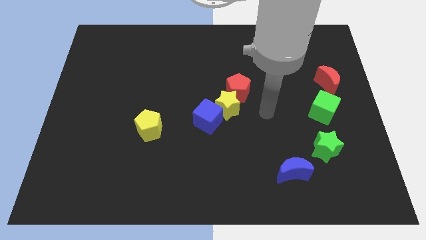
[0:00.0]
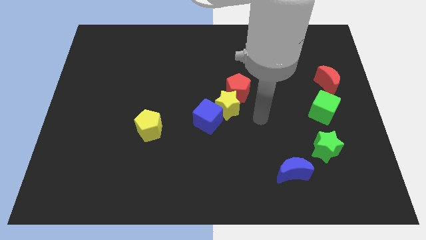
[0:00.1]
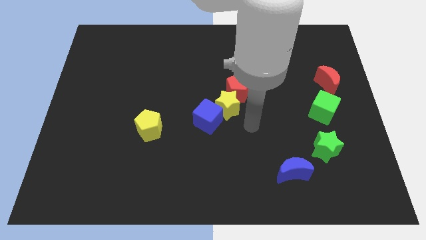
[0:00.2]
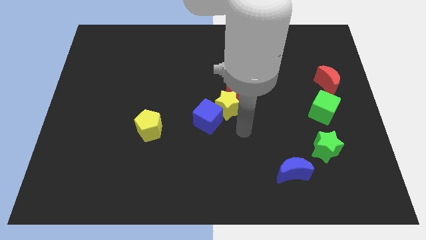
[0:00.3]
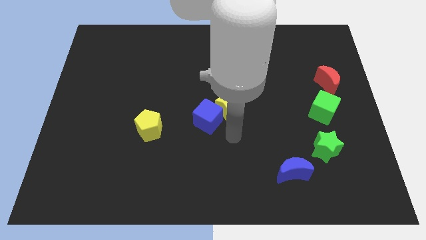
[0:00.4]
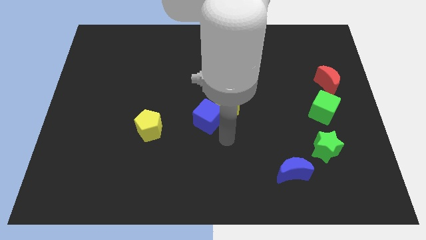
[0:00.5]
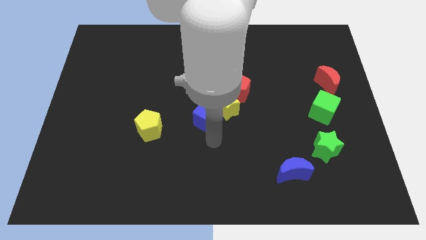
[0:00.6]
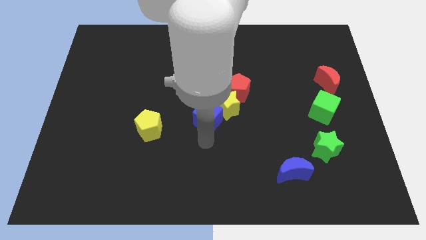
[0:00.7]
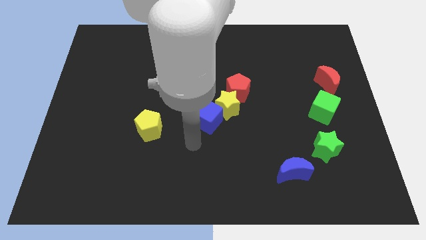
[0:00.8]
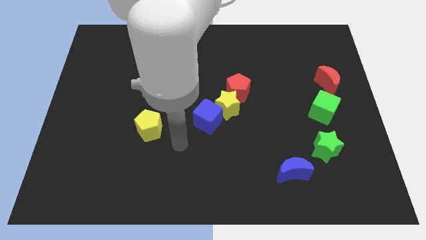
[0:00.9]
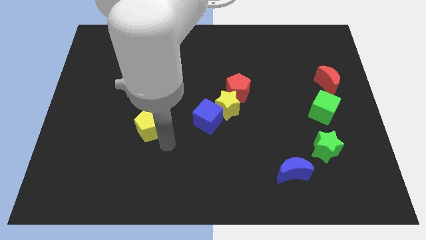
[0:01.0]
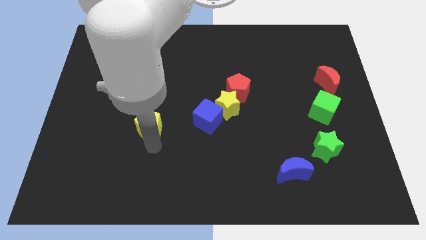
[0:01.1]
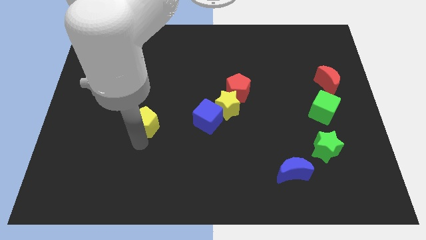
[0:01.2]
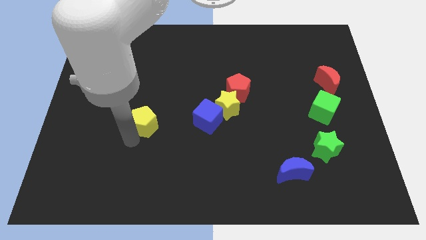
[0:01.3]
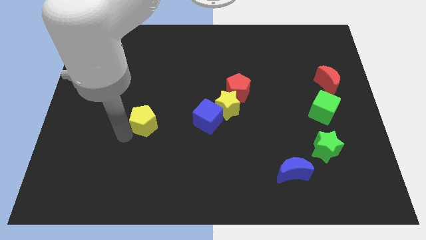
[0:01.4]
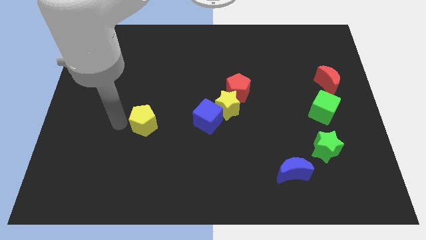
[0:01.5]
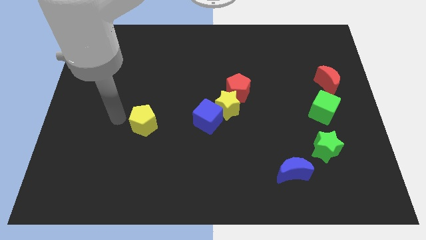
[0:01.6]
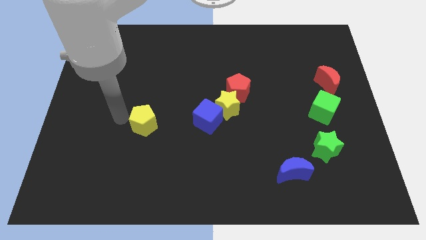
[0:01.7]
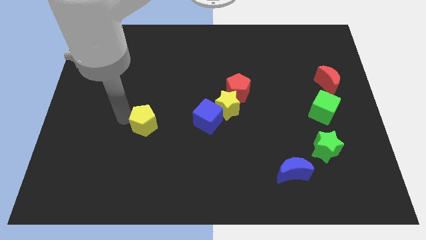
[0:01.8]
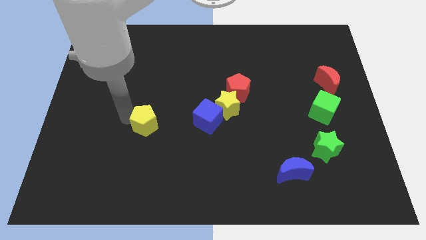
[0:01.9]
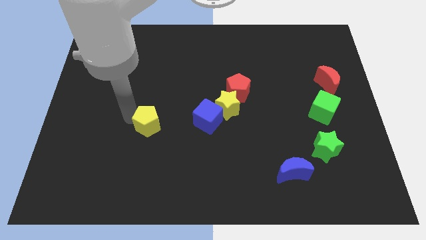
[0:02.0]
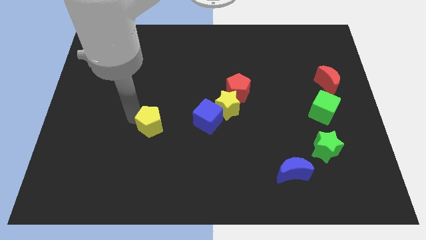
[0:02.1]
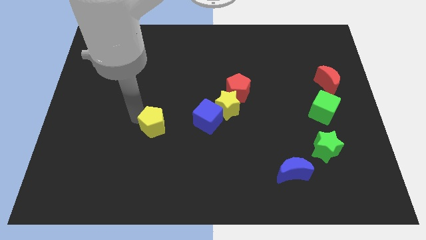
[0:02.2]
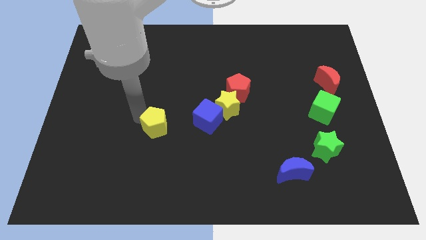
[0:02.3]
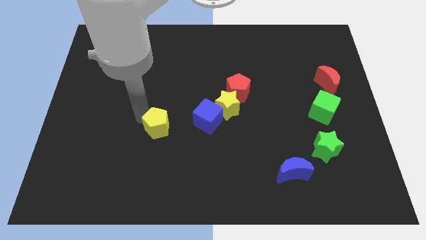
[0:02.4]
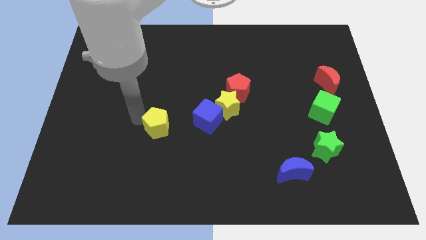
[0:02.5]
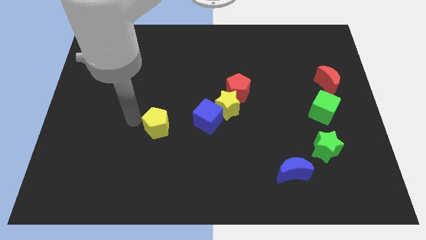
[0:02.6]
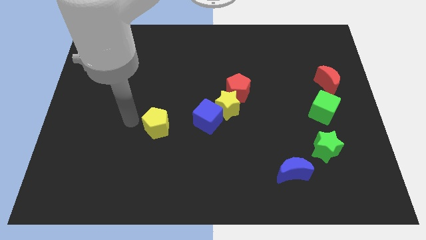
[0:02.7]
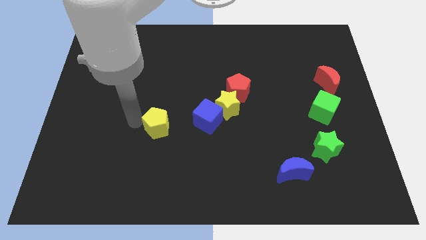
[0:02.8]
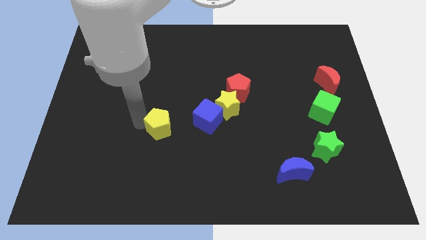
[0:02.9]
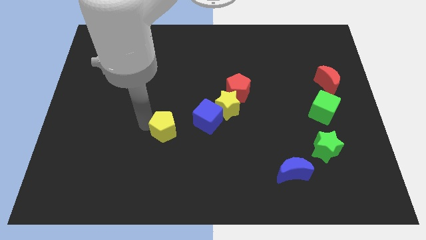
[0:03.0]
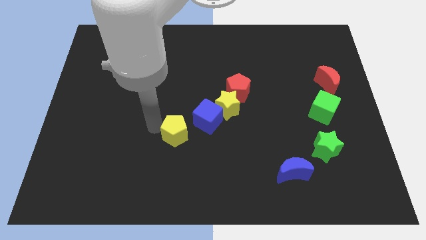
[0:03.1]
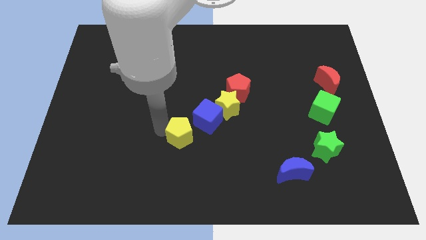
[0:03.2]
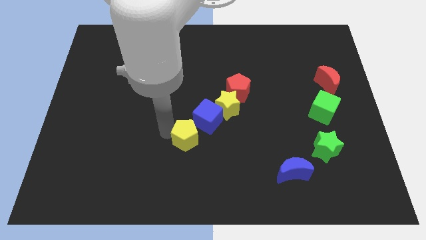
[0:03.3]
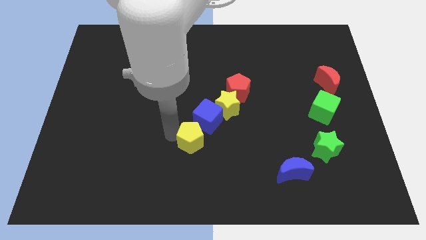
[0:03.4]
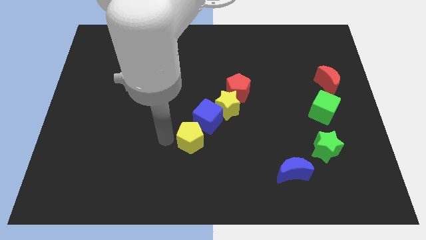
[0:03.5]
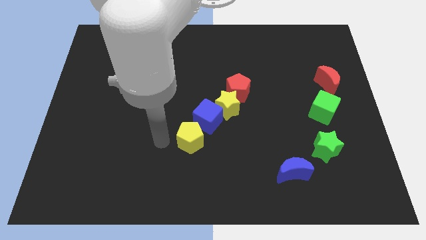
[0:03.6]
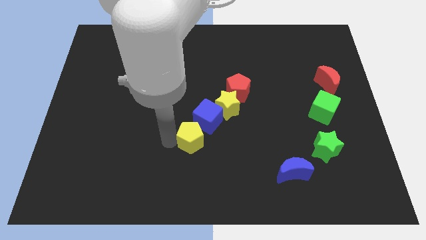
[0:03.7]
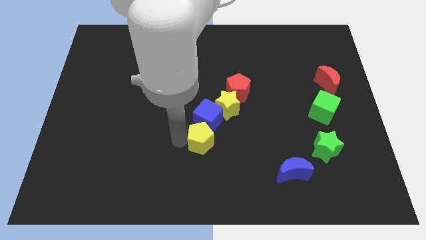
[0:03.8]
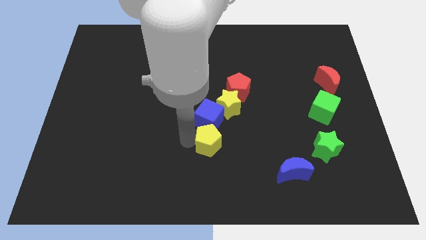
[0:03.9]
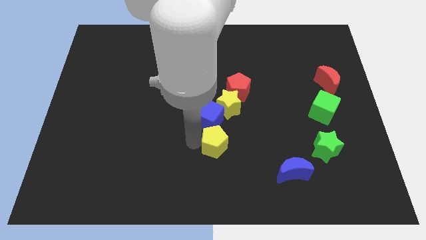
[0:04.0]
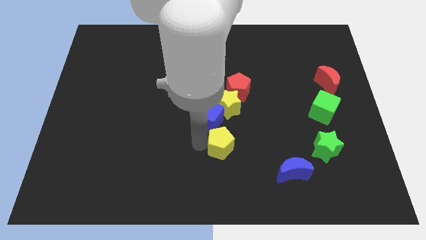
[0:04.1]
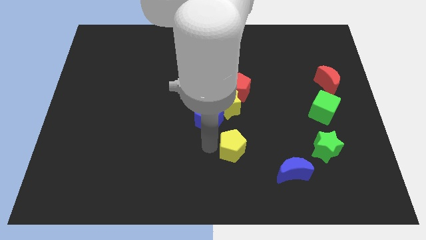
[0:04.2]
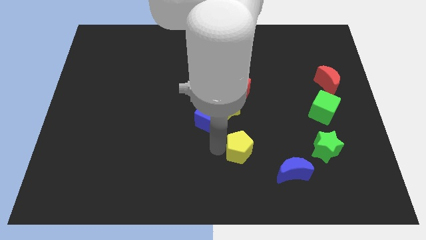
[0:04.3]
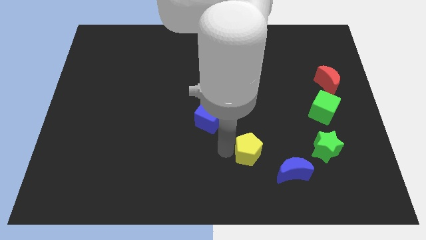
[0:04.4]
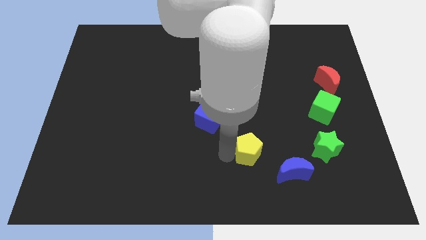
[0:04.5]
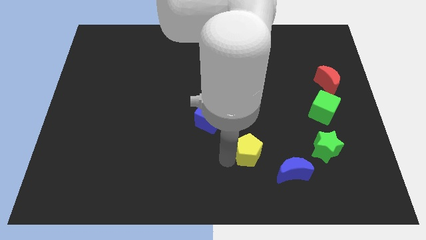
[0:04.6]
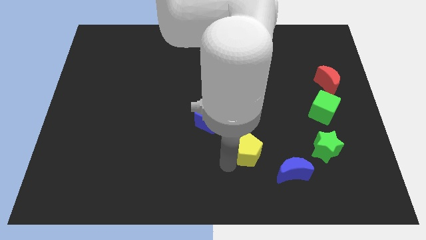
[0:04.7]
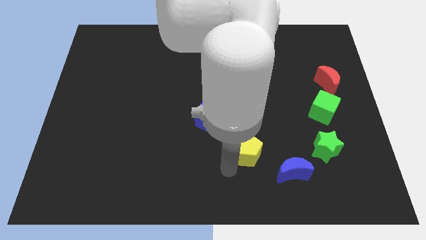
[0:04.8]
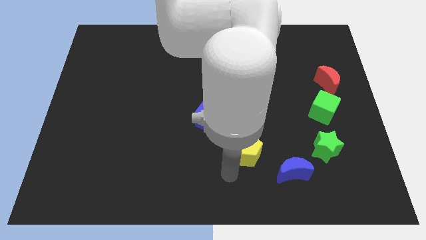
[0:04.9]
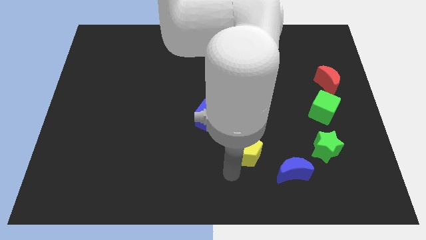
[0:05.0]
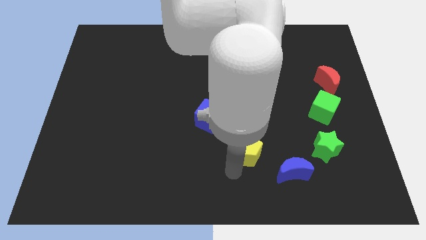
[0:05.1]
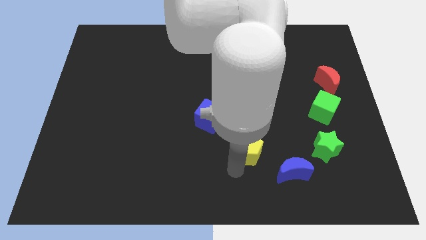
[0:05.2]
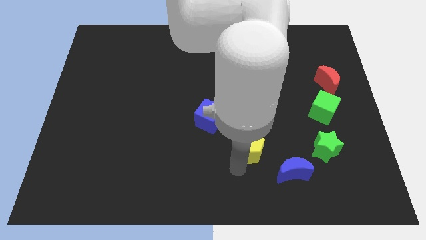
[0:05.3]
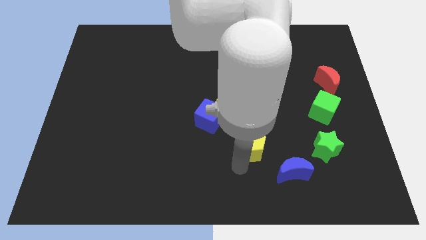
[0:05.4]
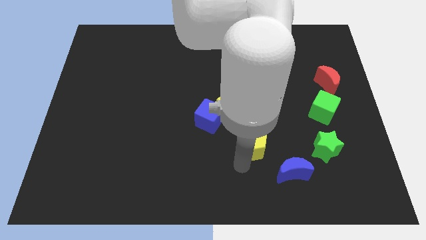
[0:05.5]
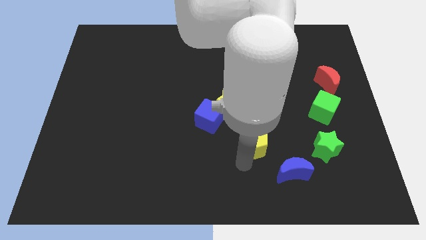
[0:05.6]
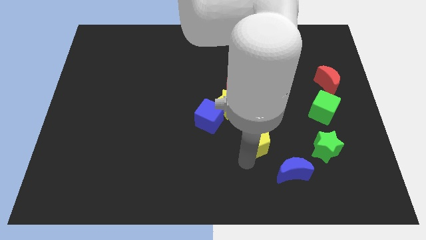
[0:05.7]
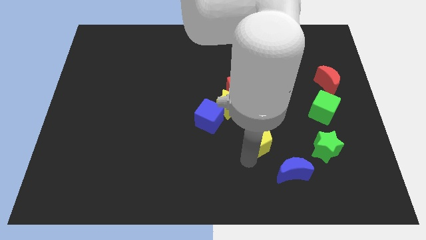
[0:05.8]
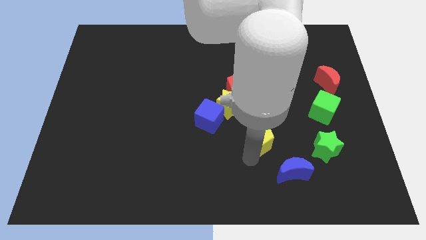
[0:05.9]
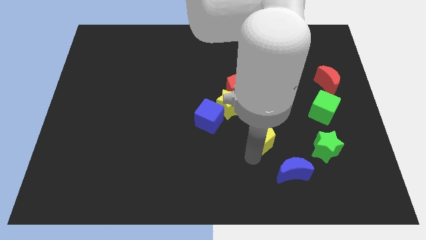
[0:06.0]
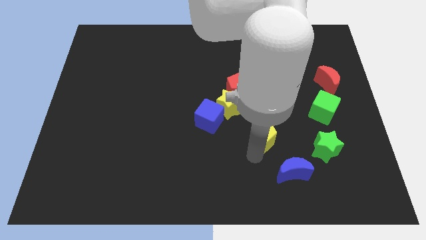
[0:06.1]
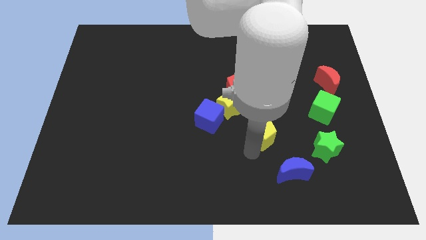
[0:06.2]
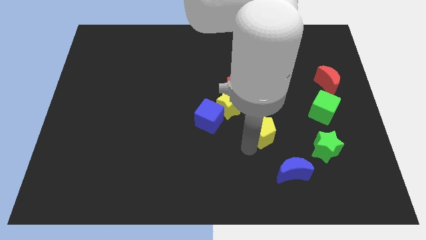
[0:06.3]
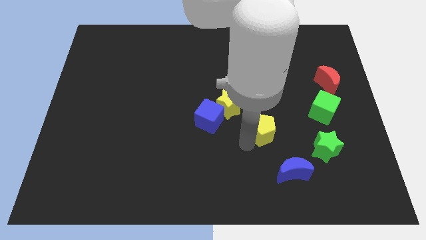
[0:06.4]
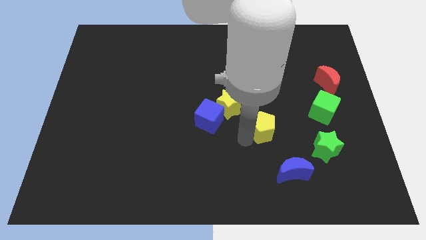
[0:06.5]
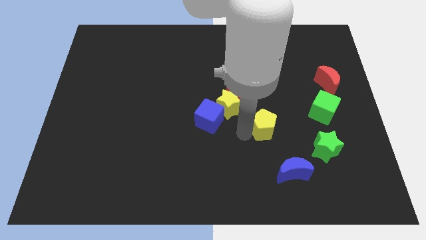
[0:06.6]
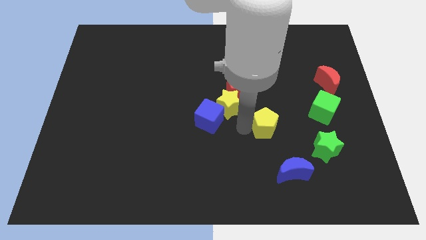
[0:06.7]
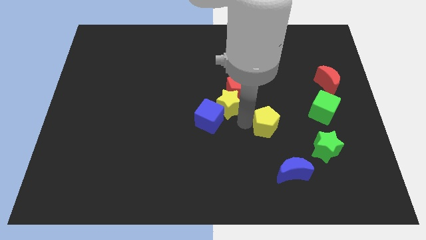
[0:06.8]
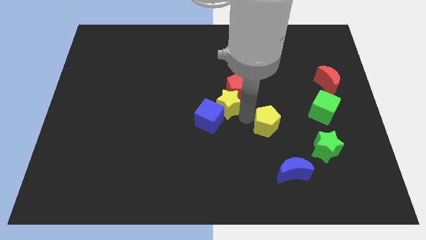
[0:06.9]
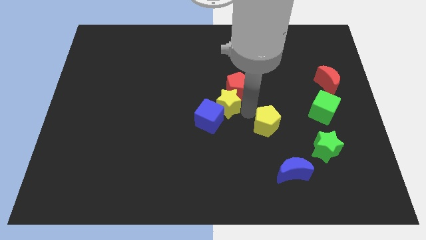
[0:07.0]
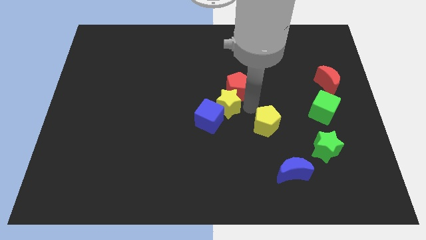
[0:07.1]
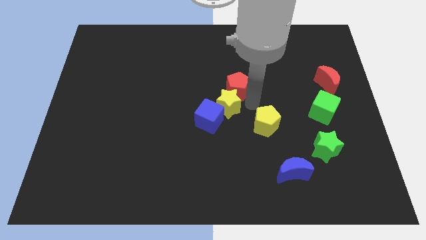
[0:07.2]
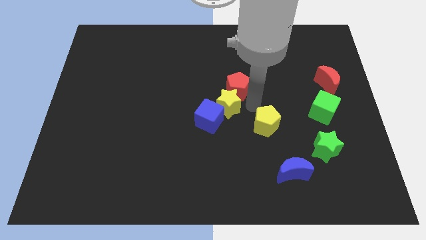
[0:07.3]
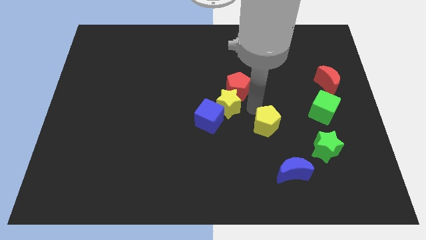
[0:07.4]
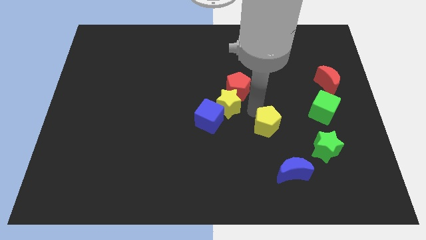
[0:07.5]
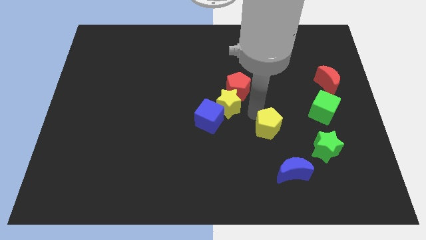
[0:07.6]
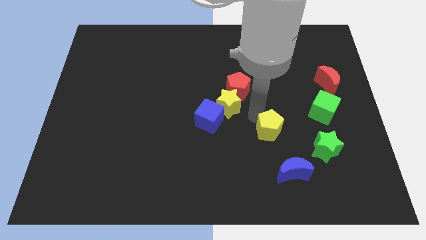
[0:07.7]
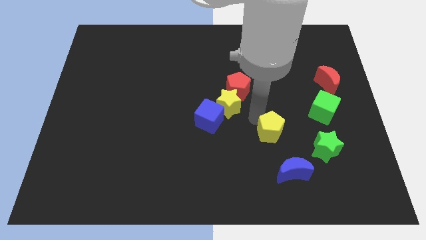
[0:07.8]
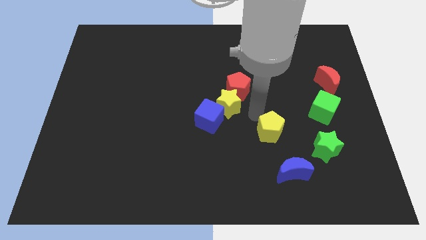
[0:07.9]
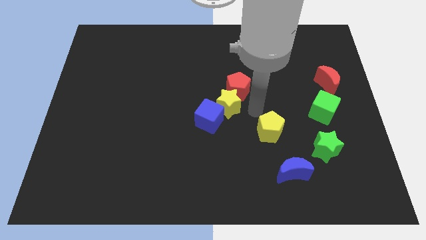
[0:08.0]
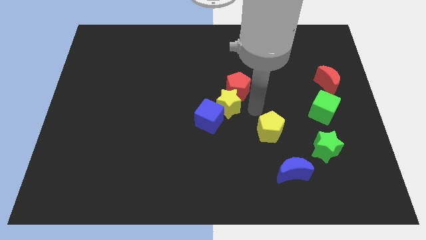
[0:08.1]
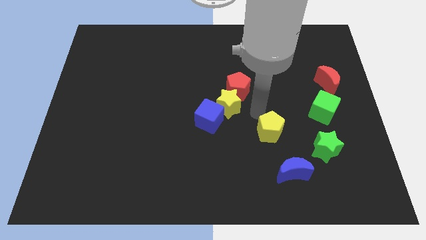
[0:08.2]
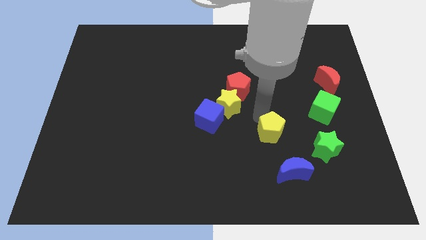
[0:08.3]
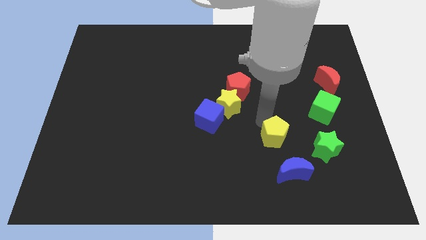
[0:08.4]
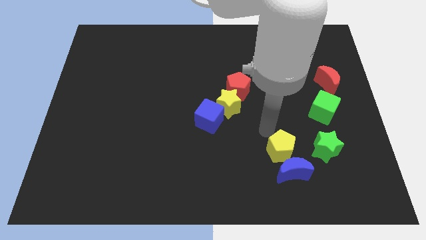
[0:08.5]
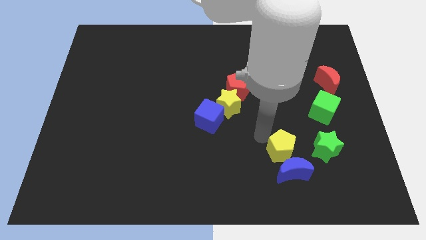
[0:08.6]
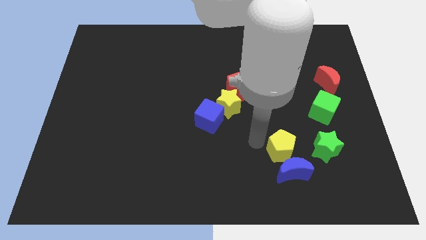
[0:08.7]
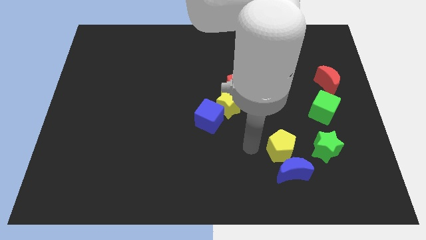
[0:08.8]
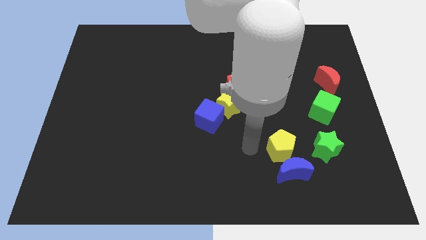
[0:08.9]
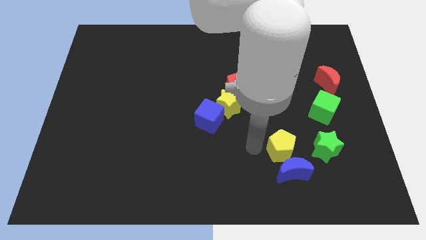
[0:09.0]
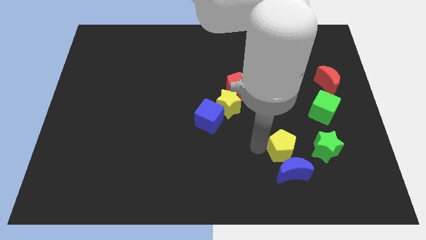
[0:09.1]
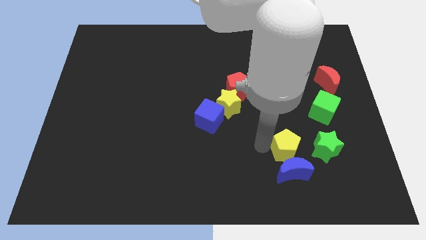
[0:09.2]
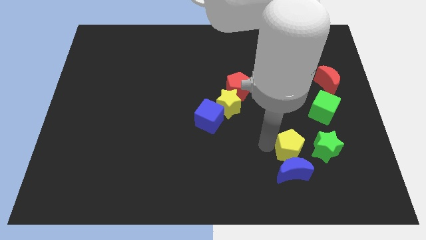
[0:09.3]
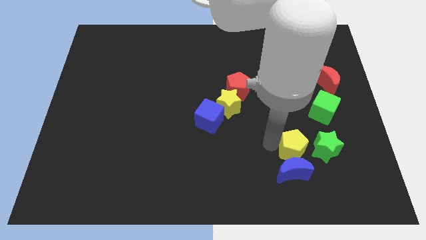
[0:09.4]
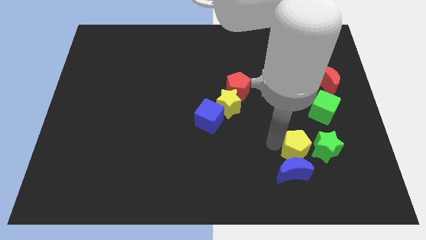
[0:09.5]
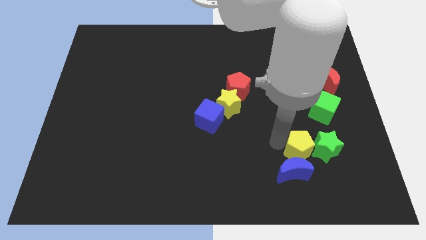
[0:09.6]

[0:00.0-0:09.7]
push the yellow pentagon next to the green star
